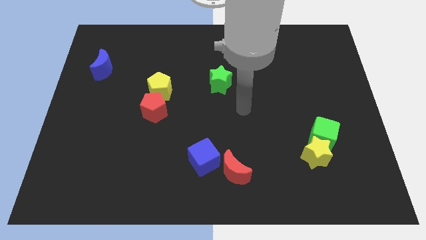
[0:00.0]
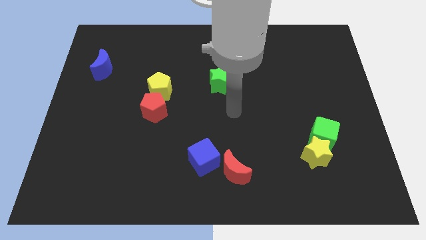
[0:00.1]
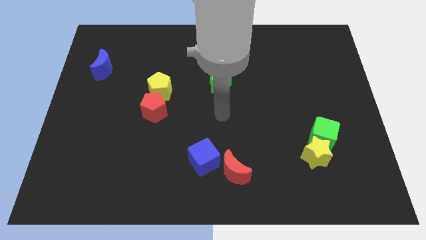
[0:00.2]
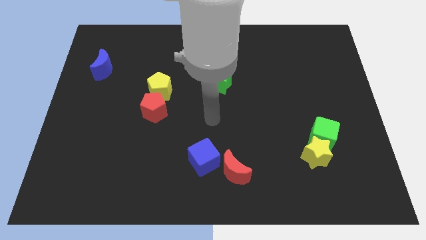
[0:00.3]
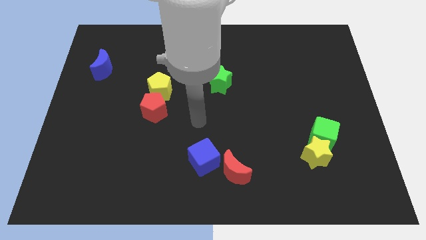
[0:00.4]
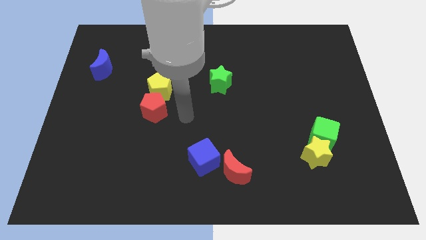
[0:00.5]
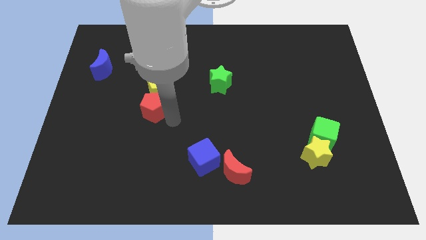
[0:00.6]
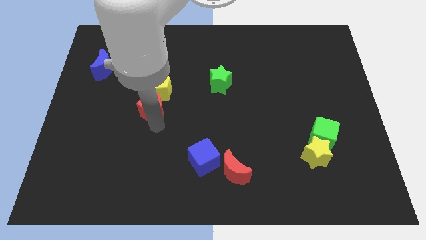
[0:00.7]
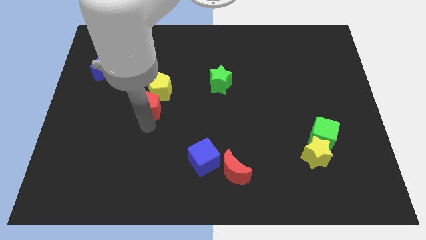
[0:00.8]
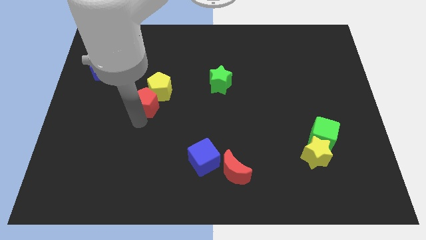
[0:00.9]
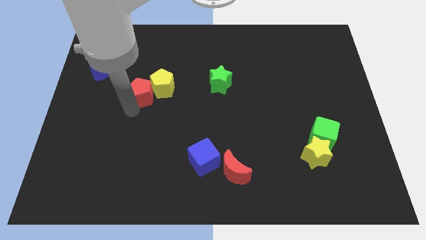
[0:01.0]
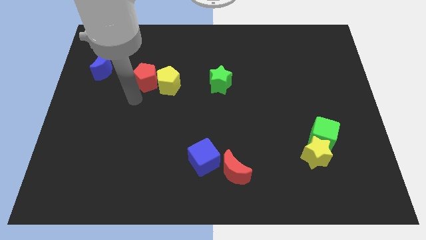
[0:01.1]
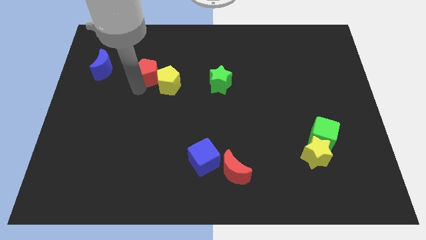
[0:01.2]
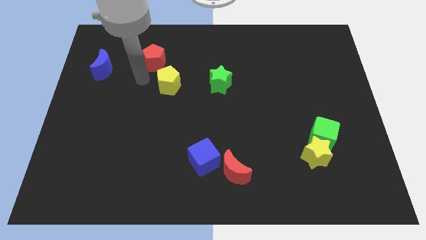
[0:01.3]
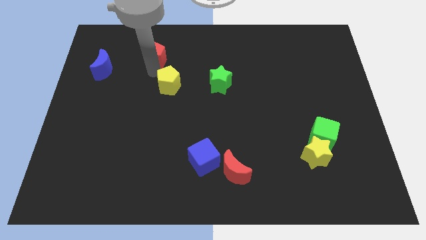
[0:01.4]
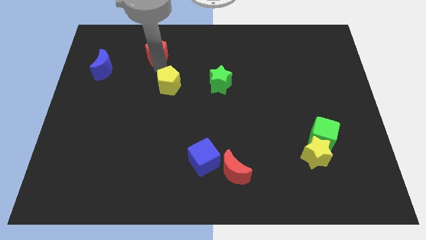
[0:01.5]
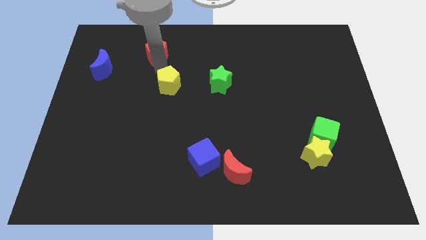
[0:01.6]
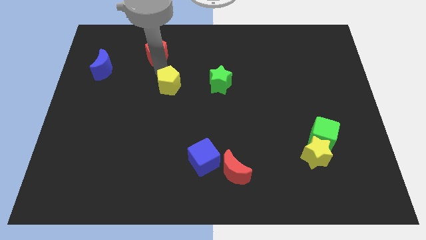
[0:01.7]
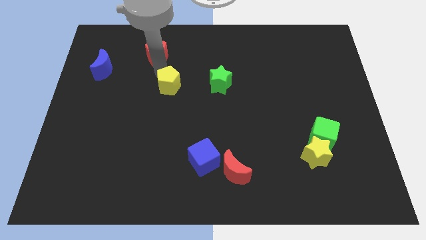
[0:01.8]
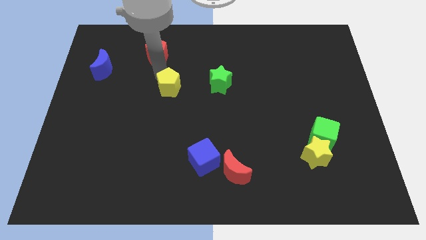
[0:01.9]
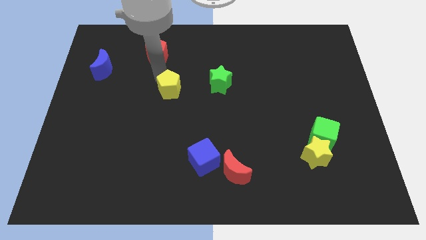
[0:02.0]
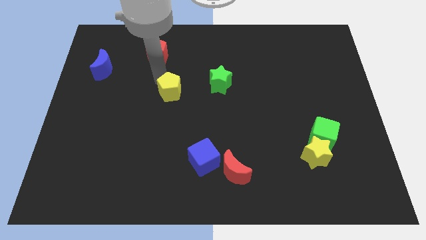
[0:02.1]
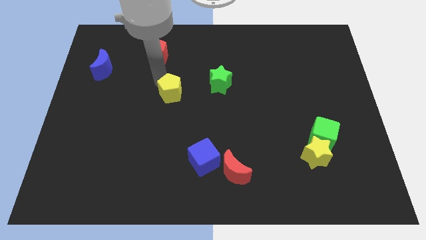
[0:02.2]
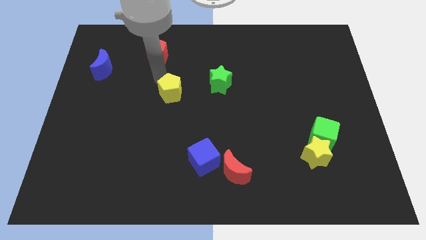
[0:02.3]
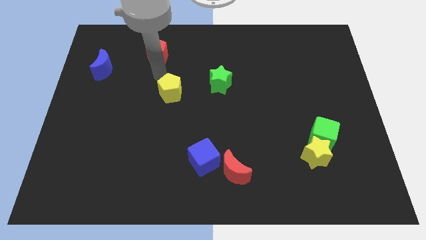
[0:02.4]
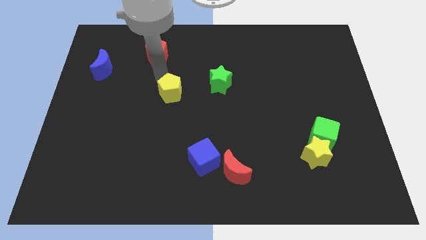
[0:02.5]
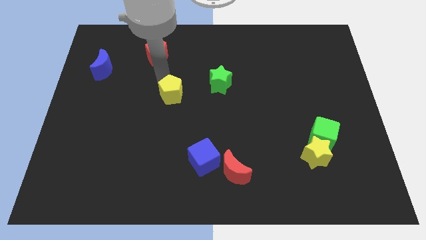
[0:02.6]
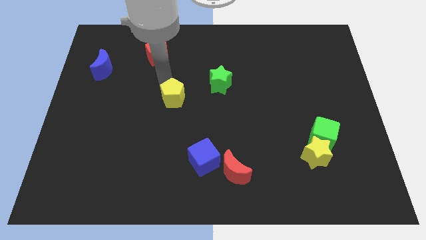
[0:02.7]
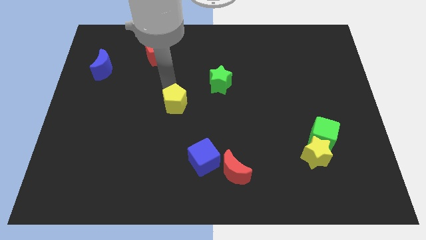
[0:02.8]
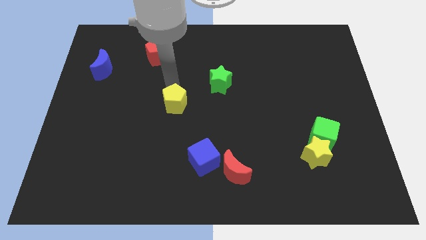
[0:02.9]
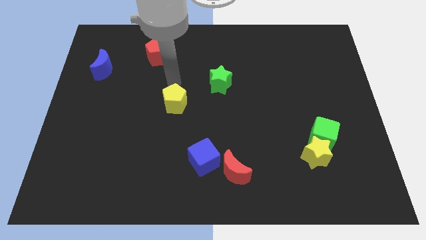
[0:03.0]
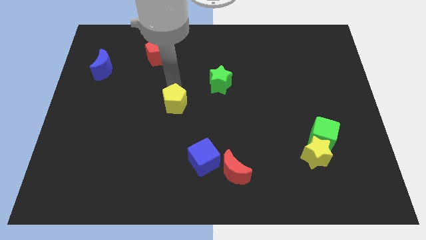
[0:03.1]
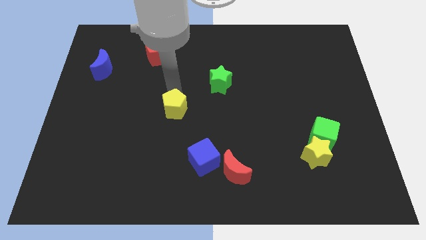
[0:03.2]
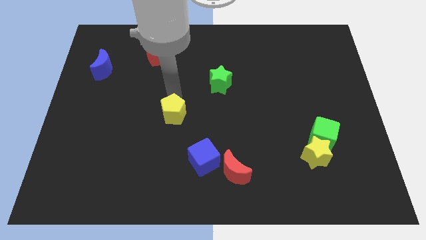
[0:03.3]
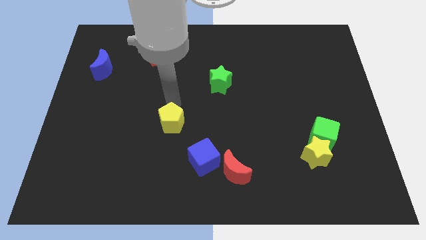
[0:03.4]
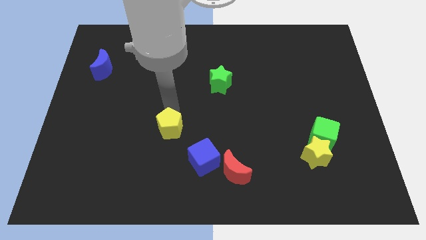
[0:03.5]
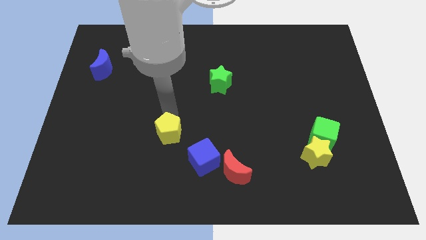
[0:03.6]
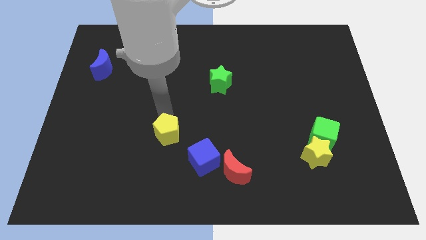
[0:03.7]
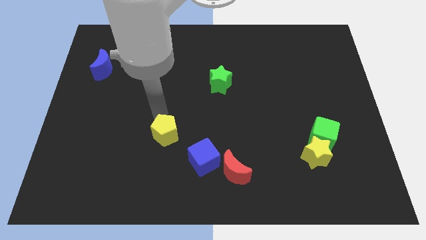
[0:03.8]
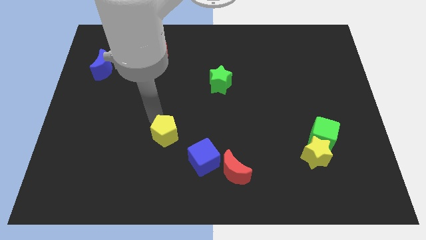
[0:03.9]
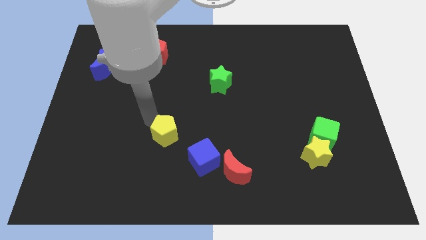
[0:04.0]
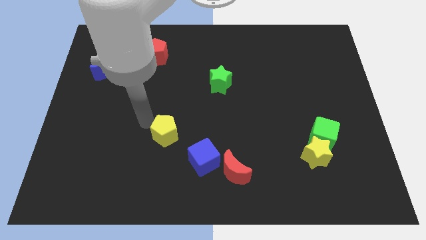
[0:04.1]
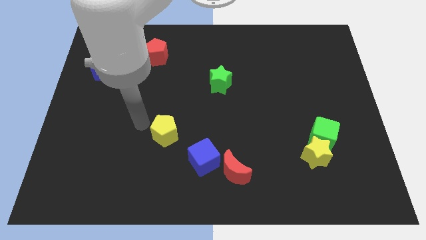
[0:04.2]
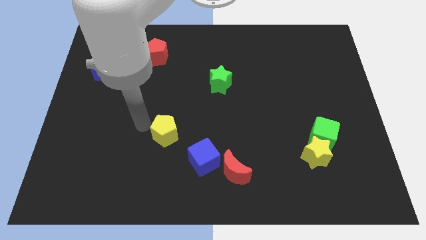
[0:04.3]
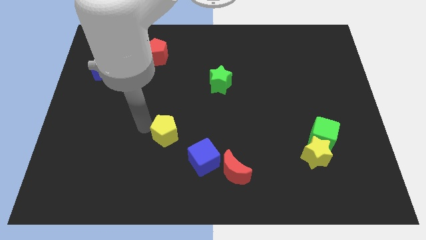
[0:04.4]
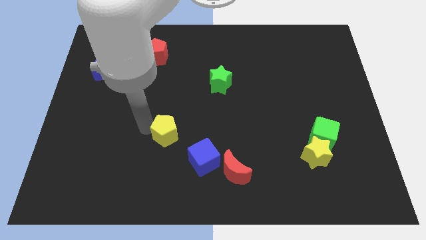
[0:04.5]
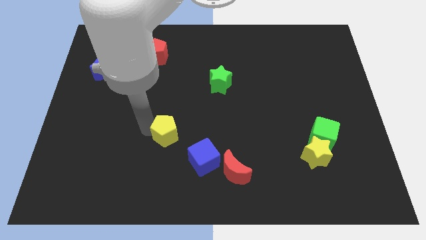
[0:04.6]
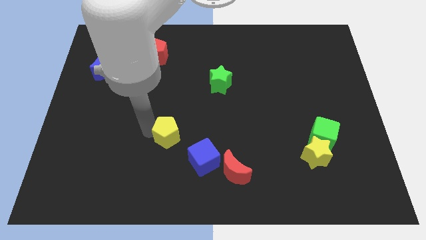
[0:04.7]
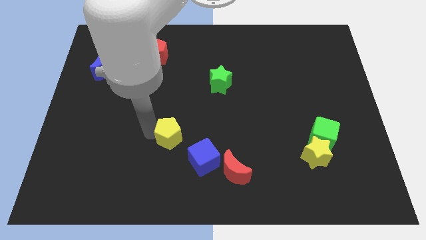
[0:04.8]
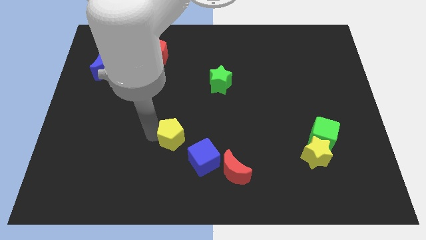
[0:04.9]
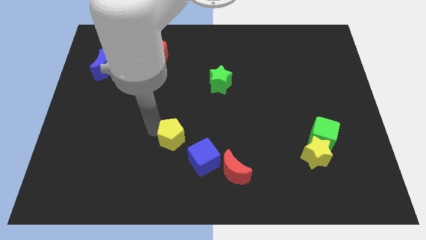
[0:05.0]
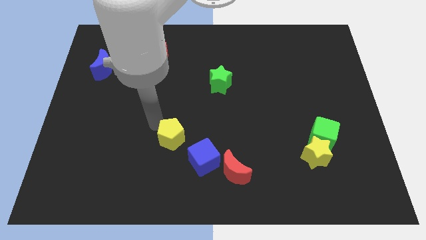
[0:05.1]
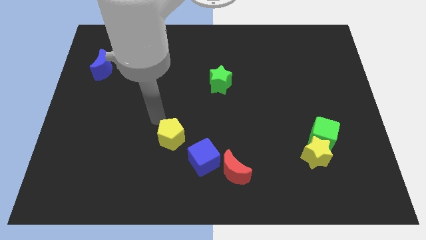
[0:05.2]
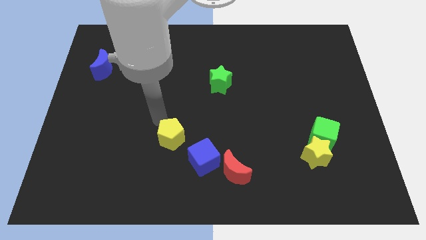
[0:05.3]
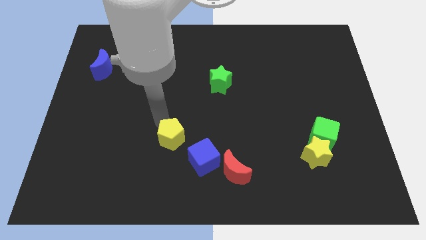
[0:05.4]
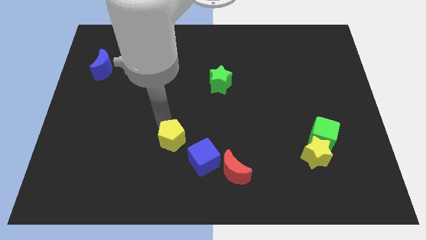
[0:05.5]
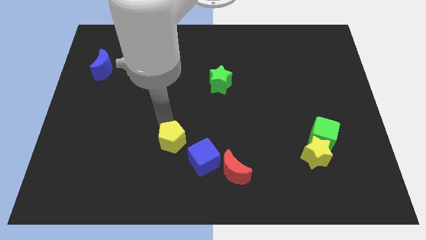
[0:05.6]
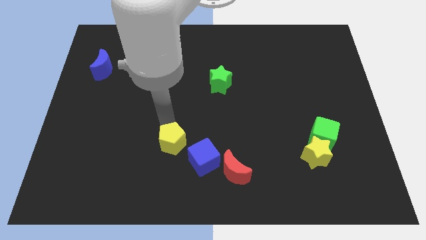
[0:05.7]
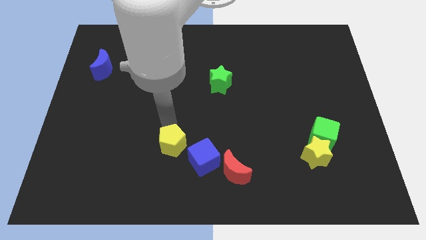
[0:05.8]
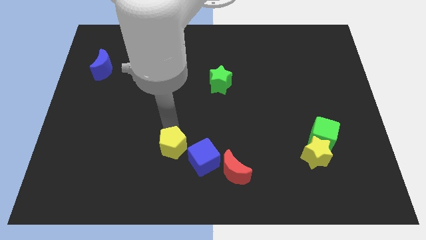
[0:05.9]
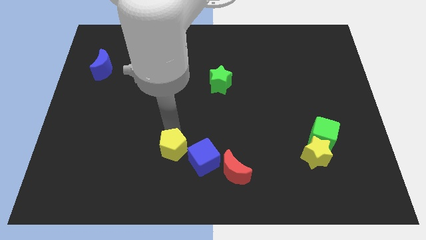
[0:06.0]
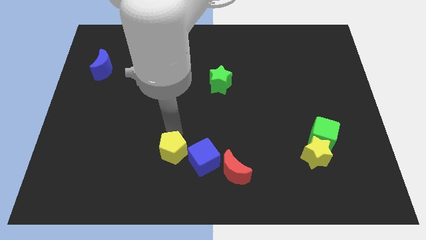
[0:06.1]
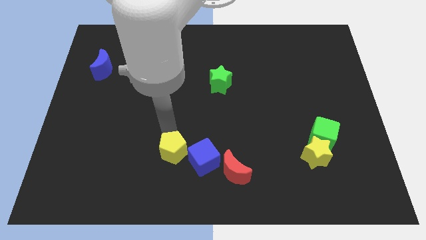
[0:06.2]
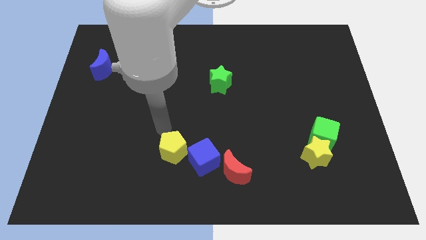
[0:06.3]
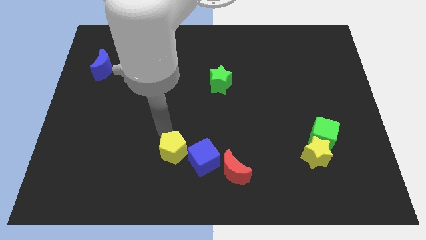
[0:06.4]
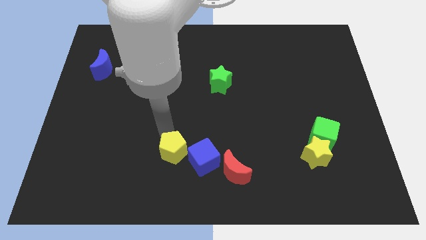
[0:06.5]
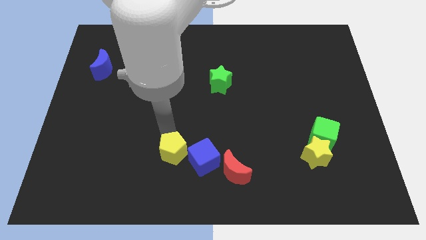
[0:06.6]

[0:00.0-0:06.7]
push the yellow pentagon to the left side of the red moon

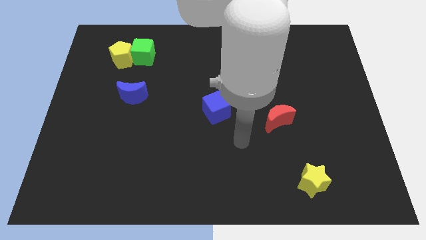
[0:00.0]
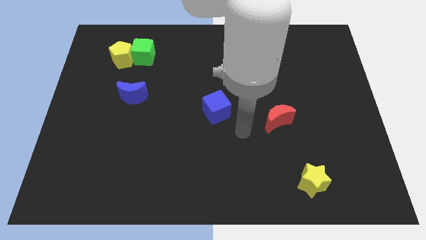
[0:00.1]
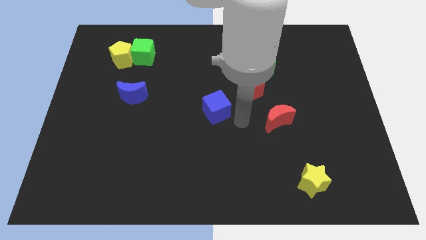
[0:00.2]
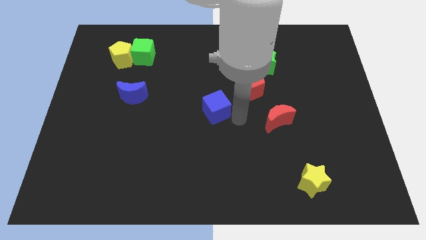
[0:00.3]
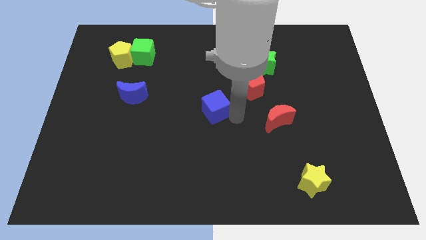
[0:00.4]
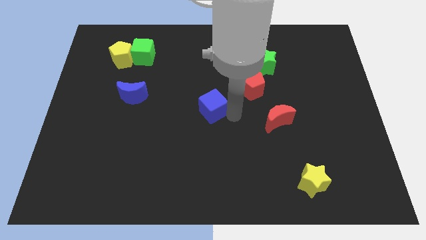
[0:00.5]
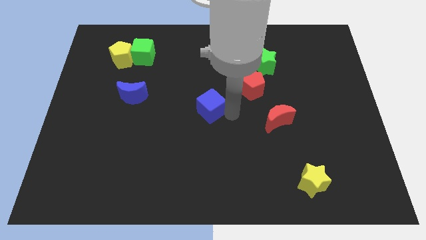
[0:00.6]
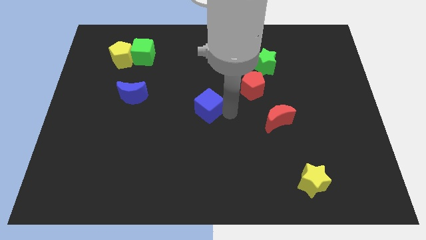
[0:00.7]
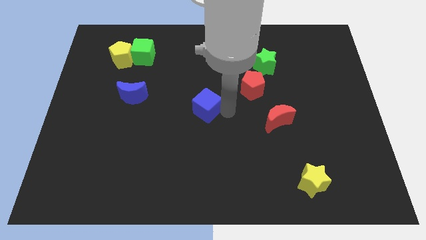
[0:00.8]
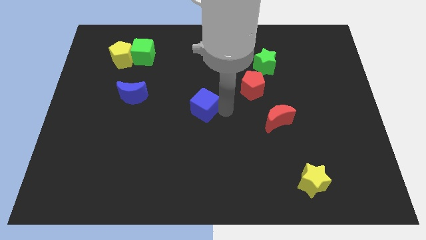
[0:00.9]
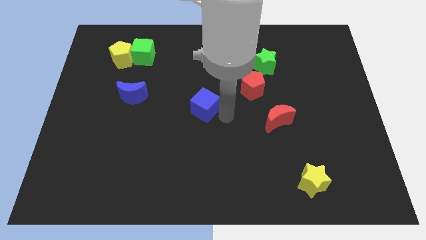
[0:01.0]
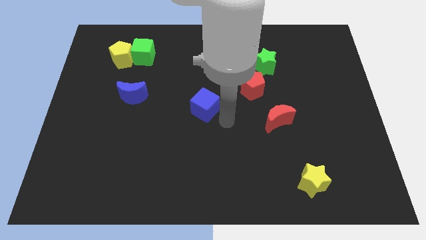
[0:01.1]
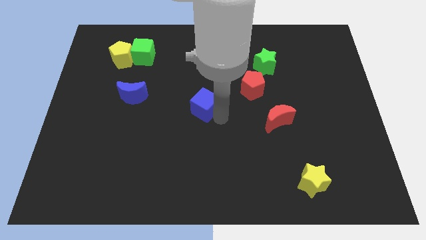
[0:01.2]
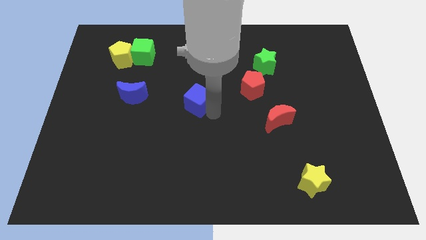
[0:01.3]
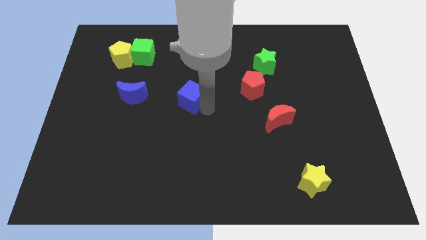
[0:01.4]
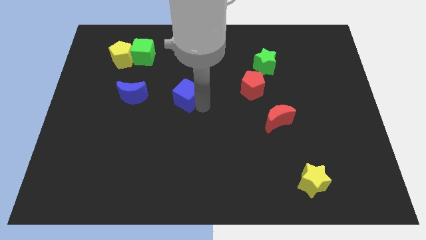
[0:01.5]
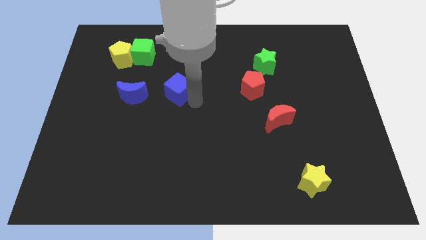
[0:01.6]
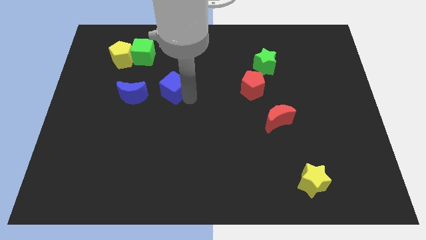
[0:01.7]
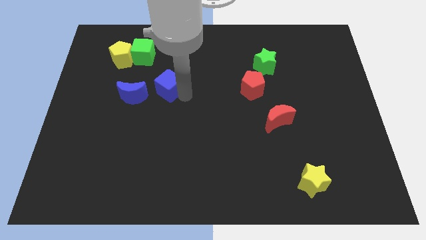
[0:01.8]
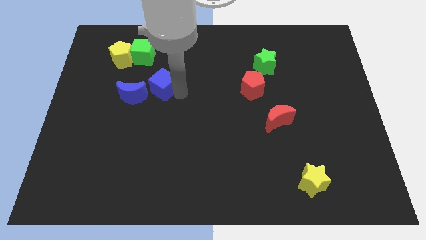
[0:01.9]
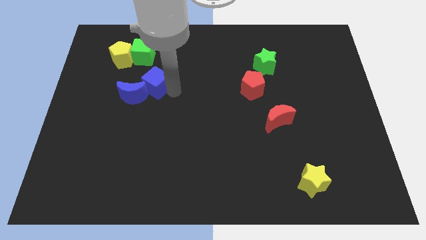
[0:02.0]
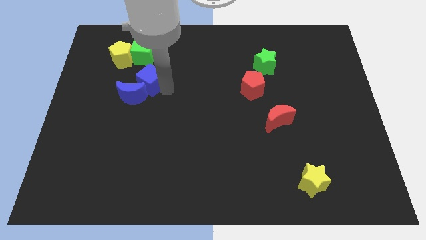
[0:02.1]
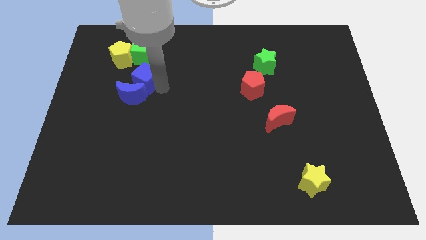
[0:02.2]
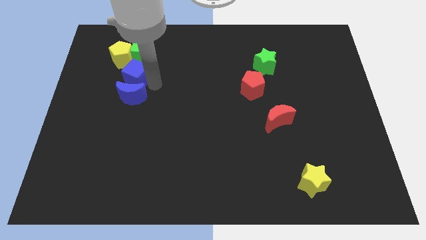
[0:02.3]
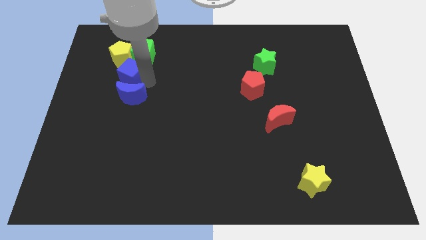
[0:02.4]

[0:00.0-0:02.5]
push the blue cube diagonally down and to the left of the green cube
